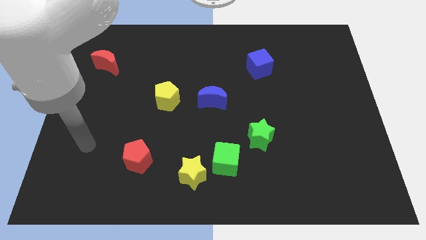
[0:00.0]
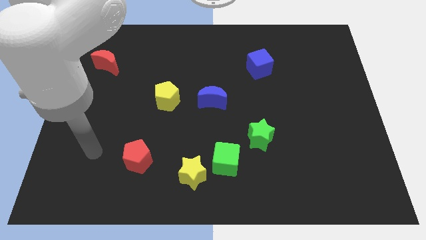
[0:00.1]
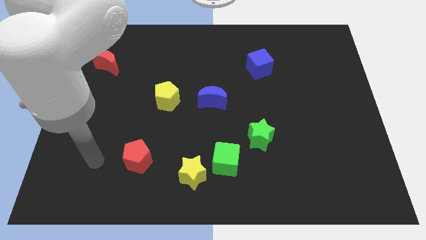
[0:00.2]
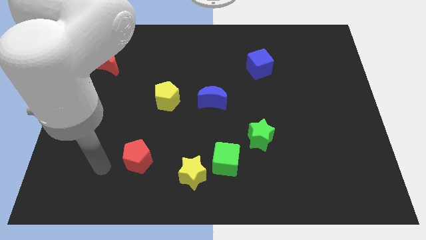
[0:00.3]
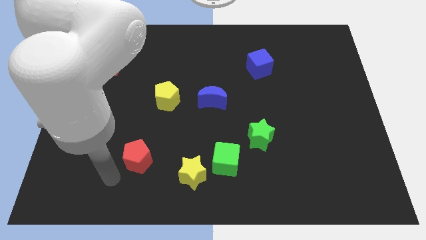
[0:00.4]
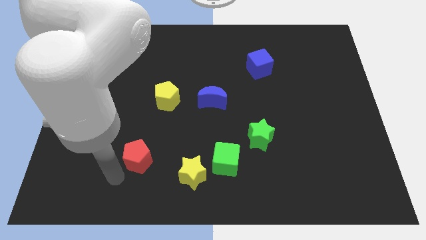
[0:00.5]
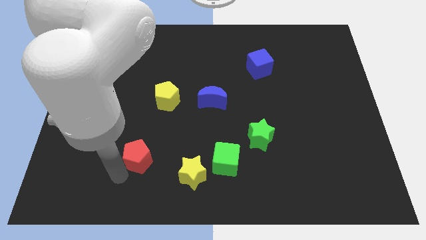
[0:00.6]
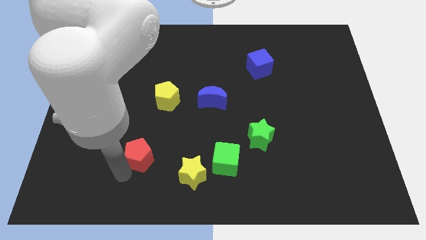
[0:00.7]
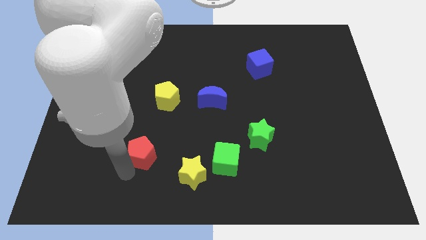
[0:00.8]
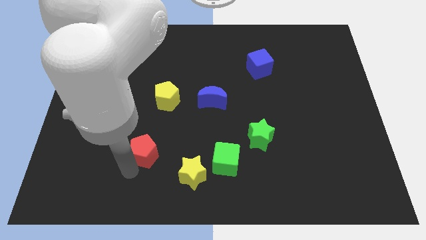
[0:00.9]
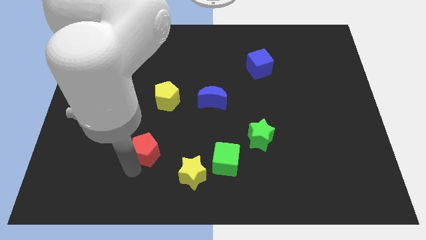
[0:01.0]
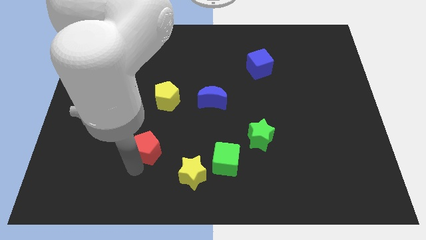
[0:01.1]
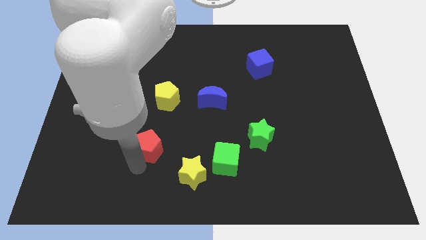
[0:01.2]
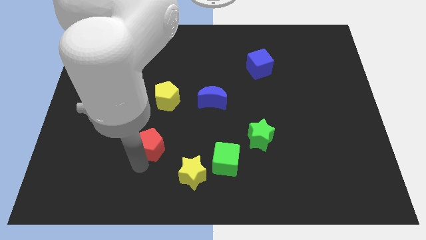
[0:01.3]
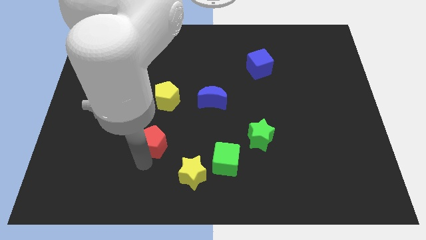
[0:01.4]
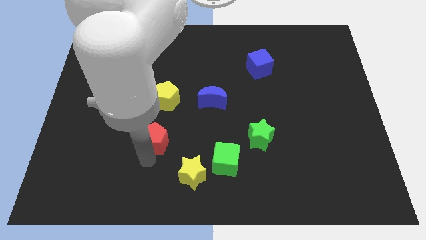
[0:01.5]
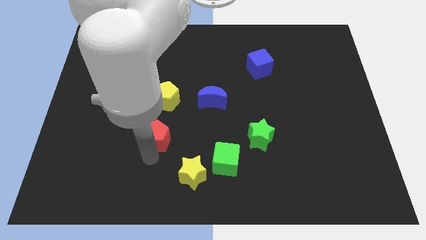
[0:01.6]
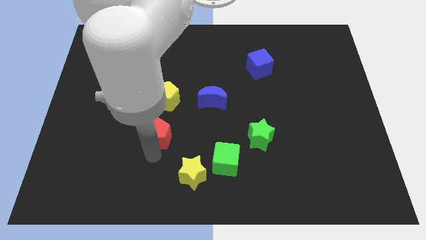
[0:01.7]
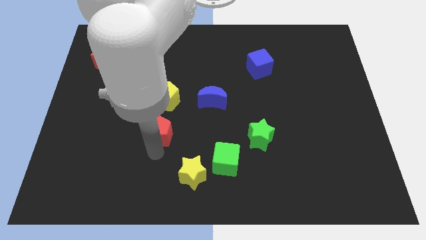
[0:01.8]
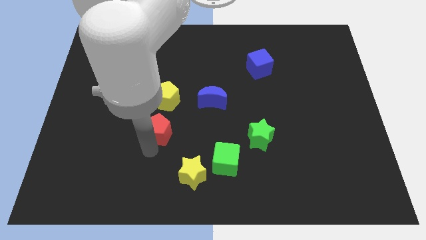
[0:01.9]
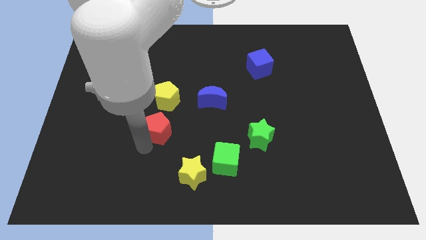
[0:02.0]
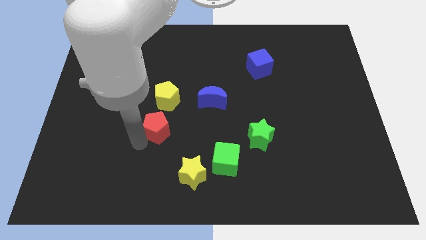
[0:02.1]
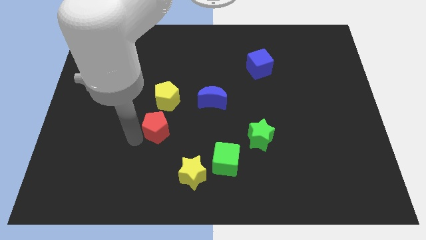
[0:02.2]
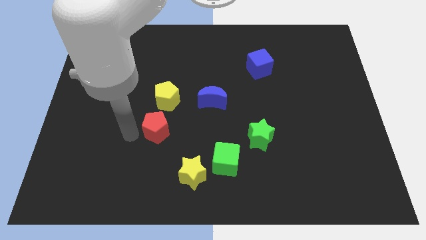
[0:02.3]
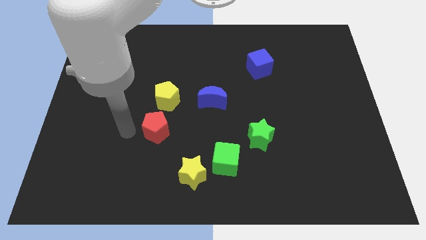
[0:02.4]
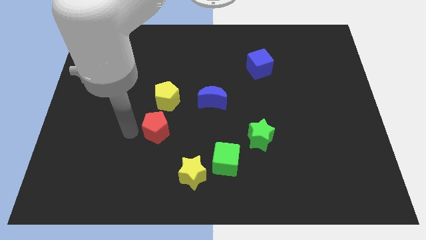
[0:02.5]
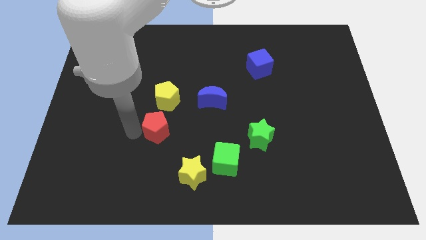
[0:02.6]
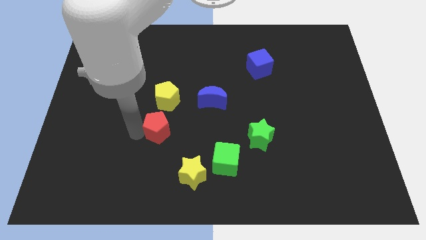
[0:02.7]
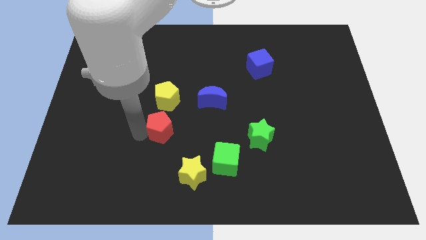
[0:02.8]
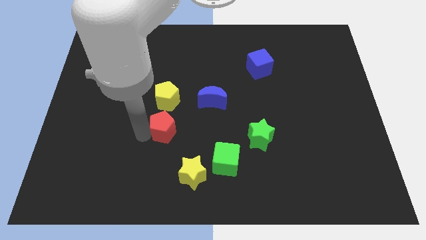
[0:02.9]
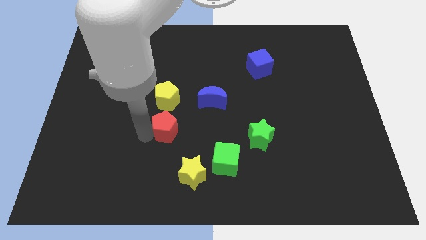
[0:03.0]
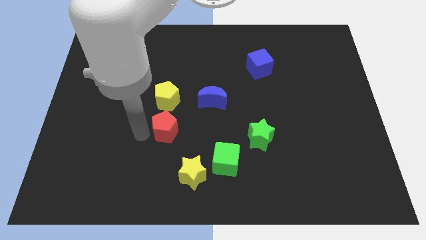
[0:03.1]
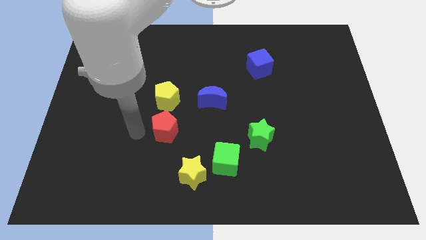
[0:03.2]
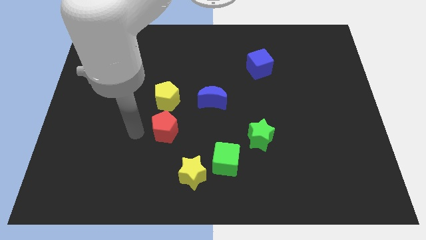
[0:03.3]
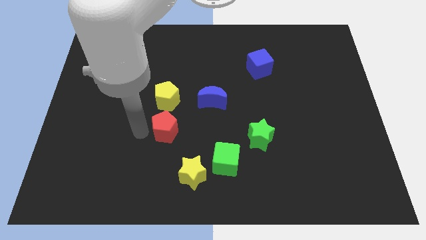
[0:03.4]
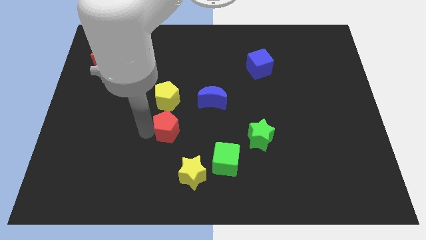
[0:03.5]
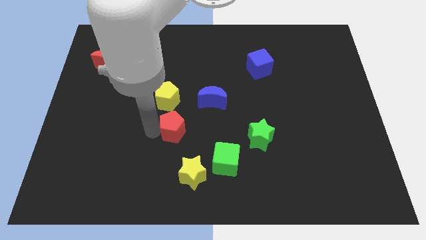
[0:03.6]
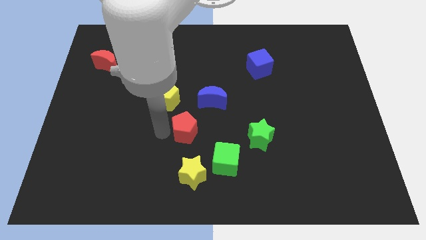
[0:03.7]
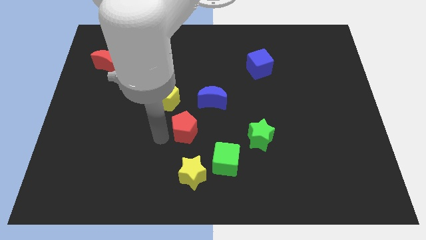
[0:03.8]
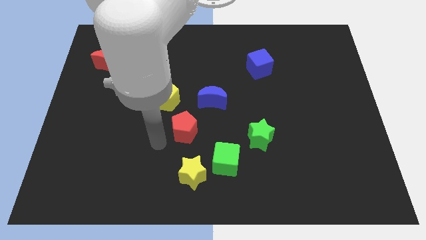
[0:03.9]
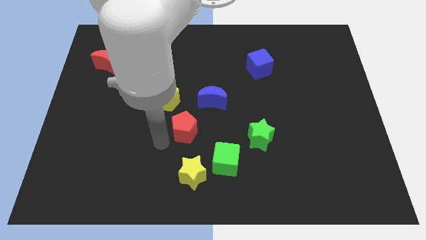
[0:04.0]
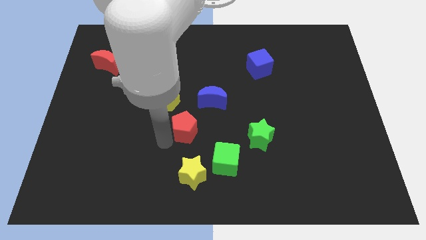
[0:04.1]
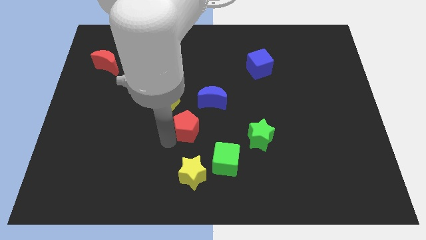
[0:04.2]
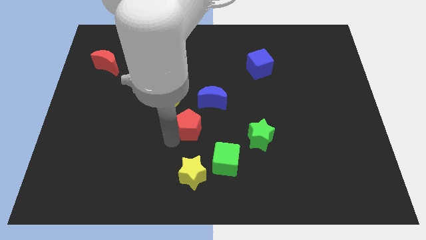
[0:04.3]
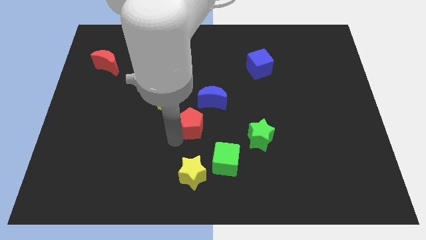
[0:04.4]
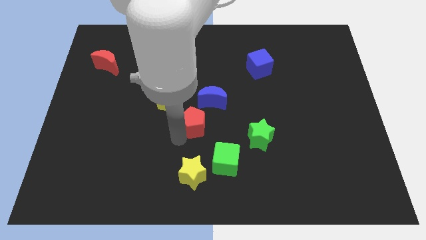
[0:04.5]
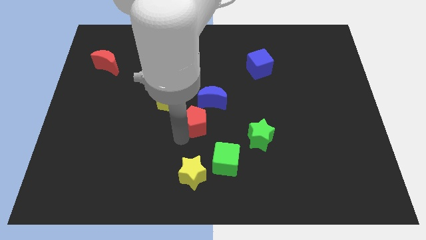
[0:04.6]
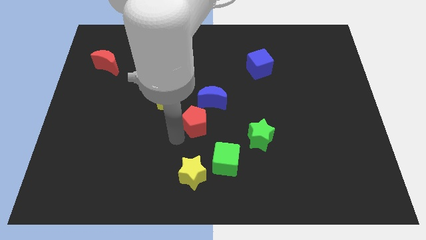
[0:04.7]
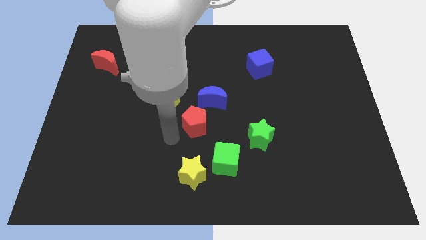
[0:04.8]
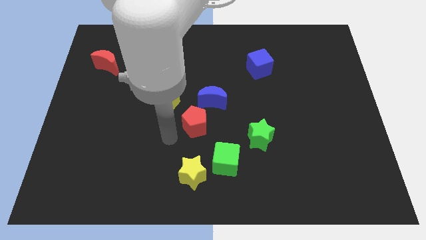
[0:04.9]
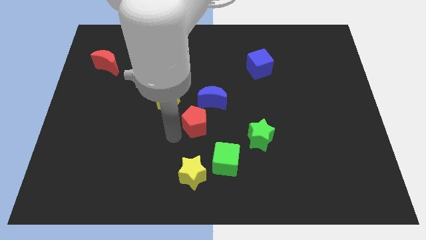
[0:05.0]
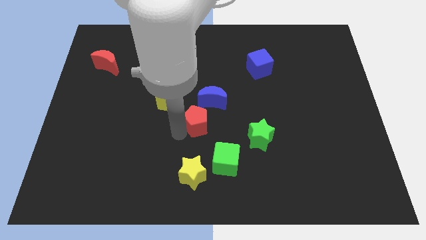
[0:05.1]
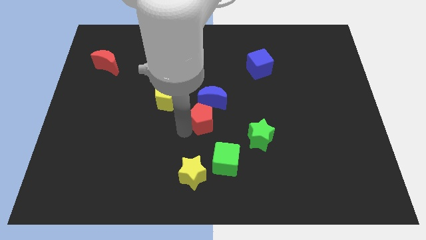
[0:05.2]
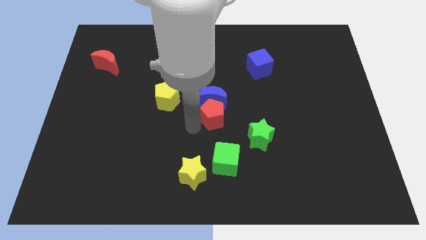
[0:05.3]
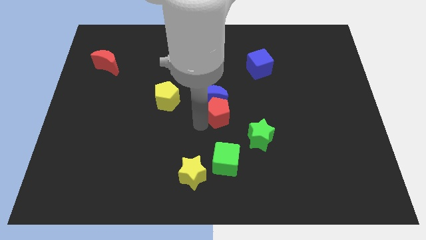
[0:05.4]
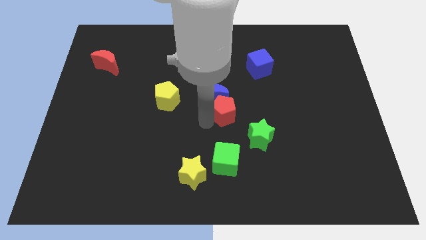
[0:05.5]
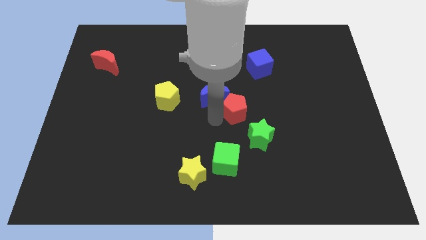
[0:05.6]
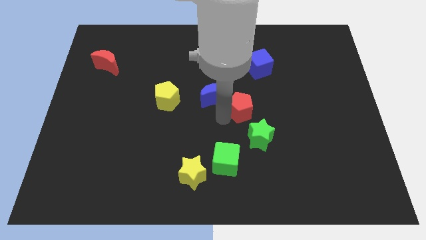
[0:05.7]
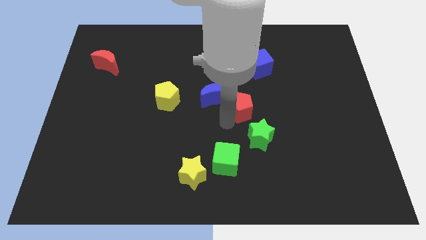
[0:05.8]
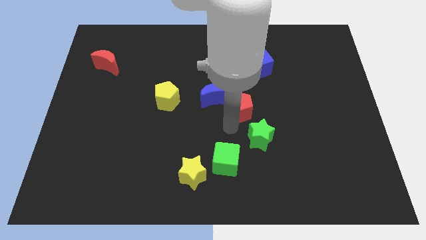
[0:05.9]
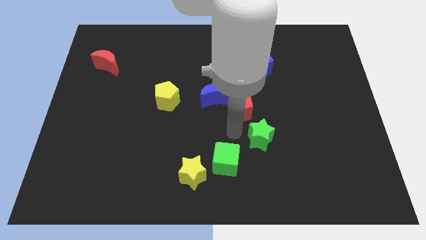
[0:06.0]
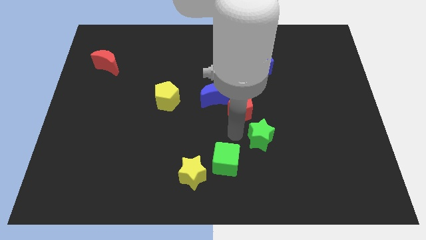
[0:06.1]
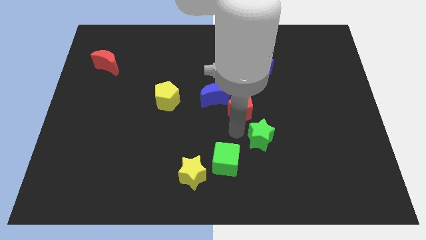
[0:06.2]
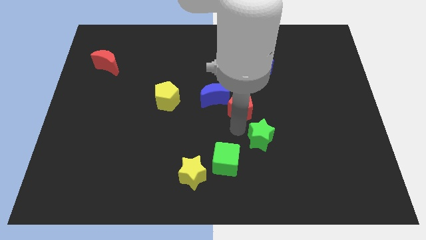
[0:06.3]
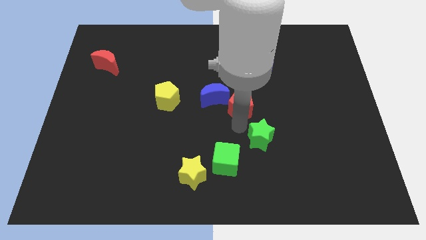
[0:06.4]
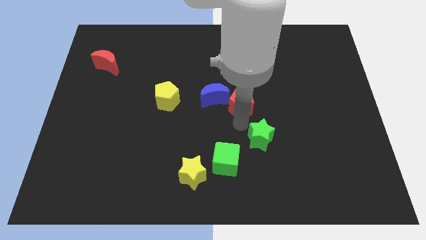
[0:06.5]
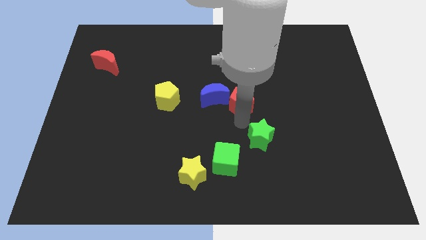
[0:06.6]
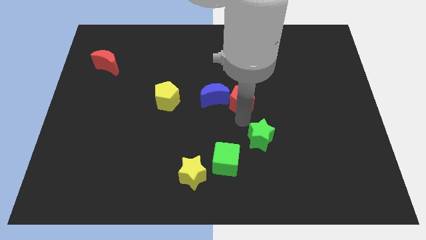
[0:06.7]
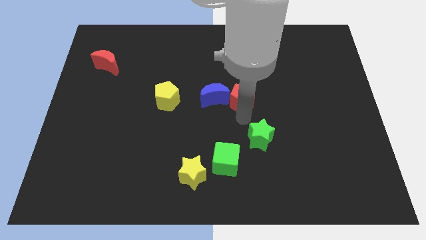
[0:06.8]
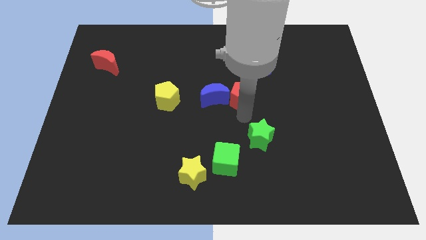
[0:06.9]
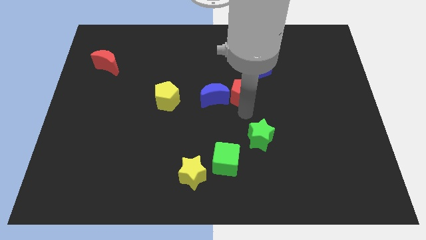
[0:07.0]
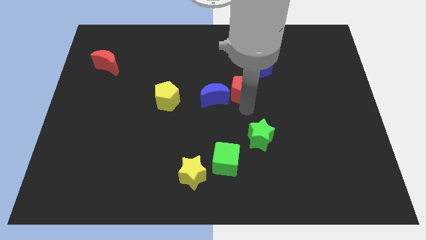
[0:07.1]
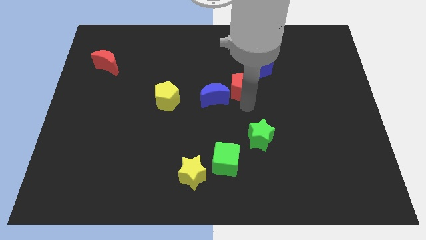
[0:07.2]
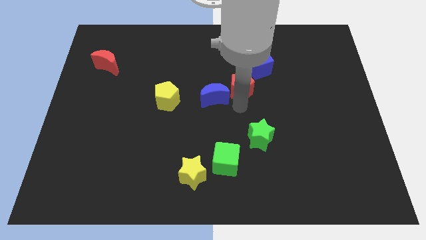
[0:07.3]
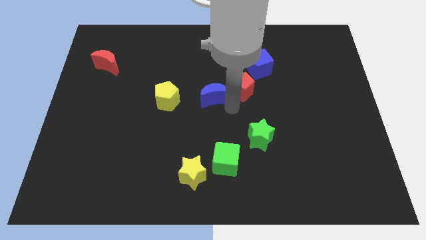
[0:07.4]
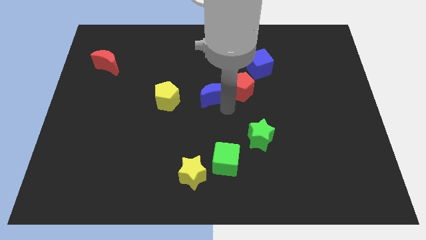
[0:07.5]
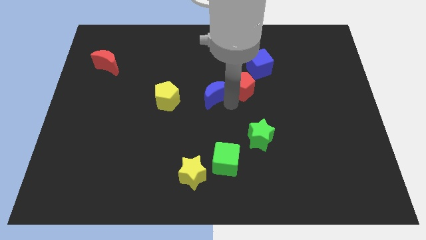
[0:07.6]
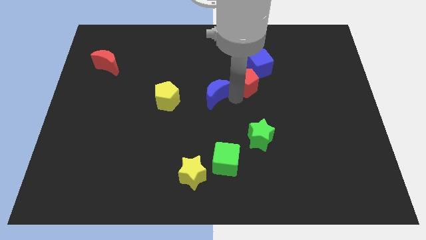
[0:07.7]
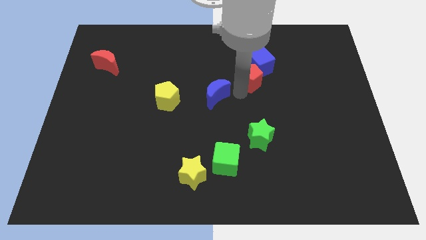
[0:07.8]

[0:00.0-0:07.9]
push the red pentagon towards the blue cube
